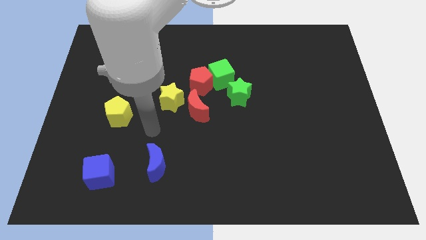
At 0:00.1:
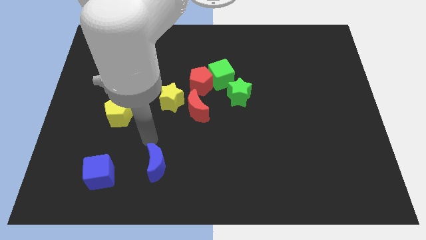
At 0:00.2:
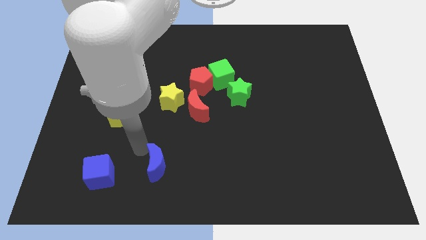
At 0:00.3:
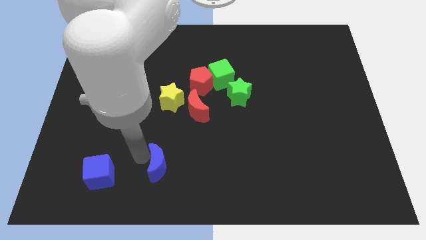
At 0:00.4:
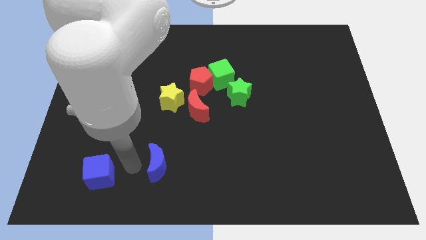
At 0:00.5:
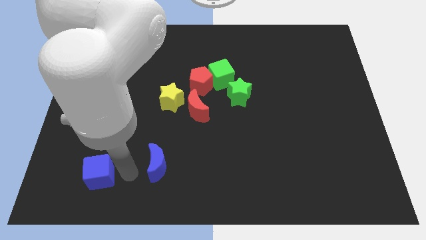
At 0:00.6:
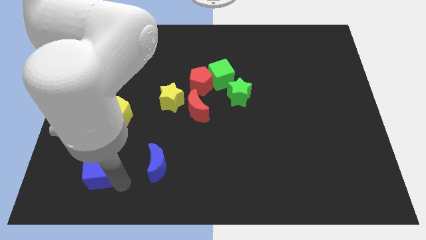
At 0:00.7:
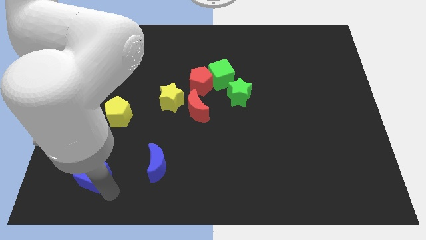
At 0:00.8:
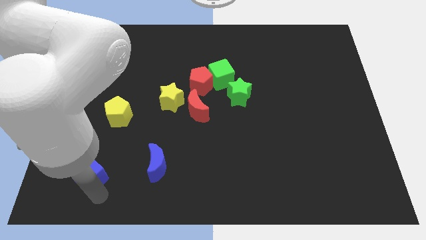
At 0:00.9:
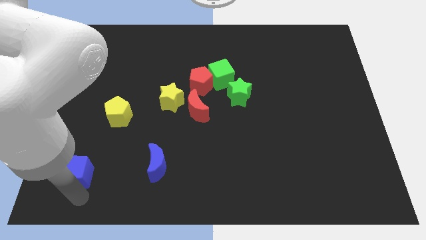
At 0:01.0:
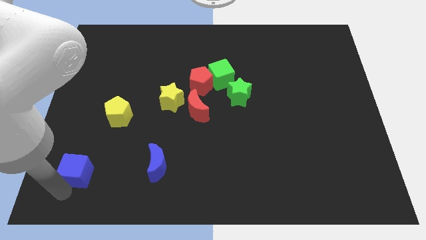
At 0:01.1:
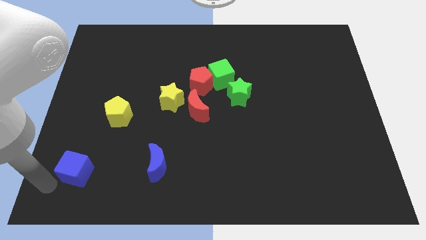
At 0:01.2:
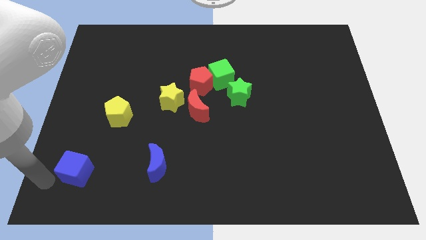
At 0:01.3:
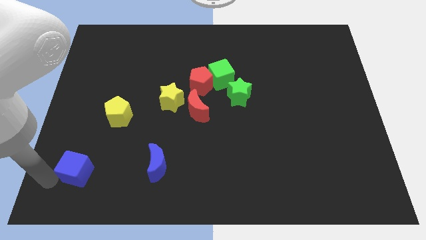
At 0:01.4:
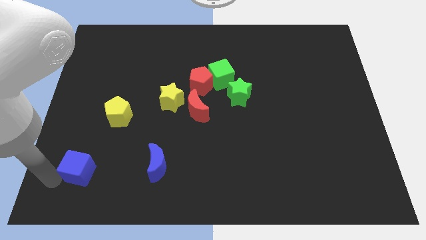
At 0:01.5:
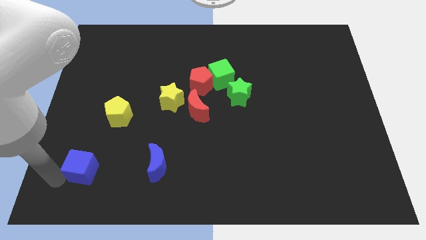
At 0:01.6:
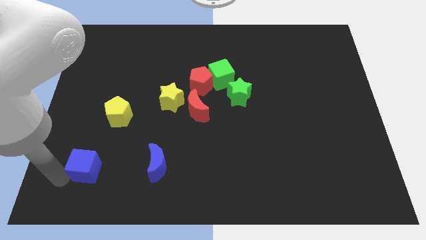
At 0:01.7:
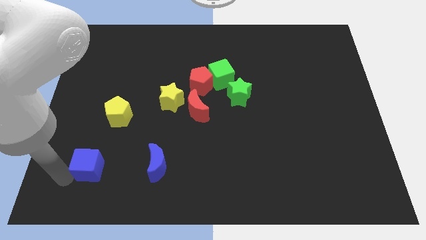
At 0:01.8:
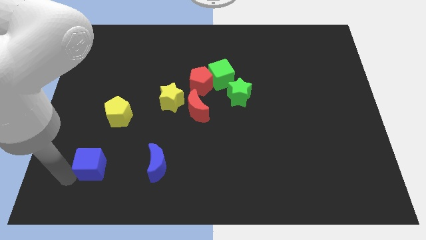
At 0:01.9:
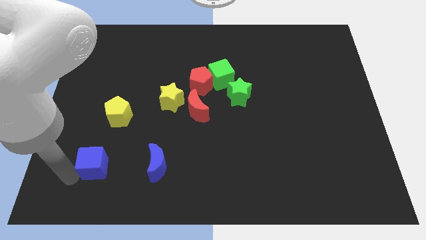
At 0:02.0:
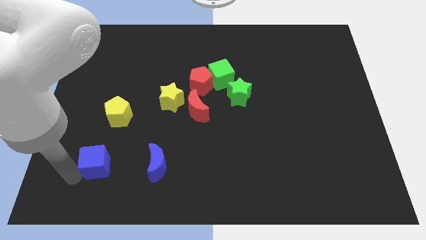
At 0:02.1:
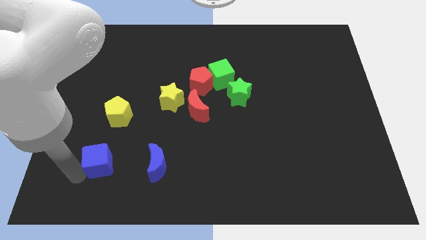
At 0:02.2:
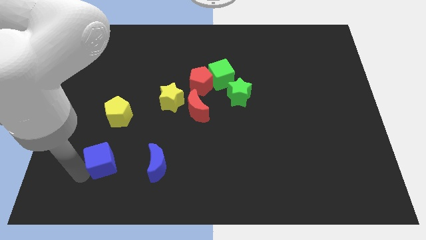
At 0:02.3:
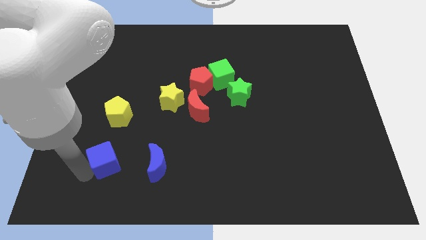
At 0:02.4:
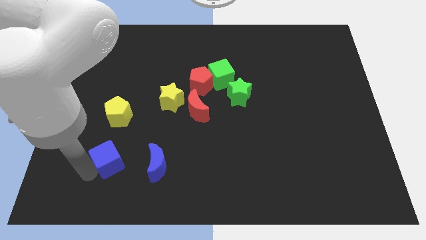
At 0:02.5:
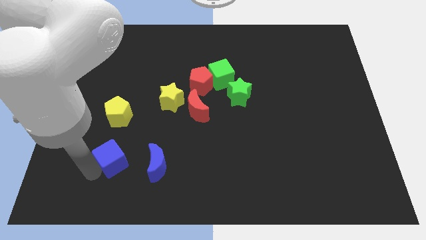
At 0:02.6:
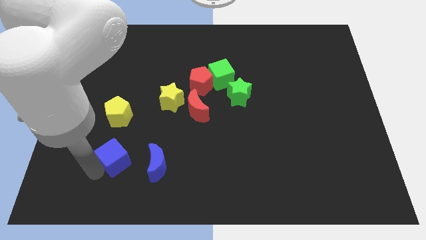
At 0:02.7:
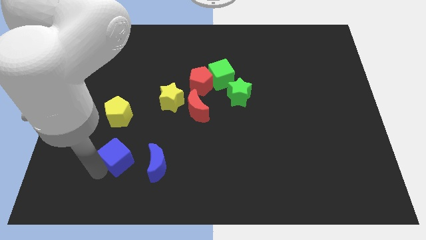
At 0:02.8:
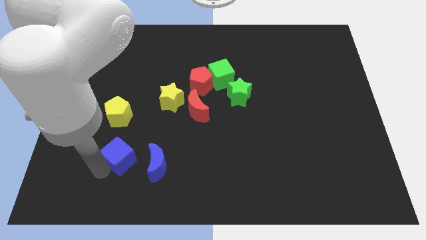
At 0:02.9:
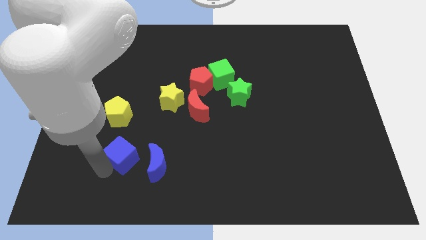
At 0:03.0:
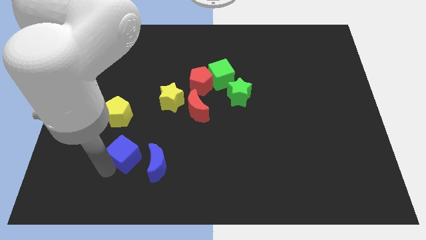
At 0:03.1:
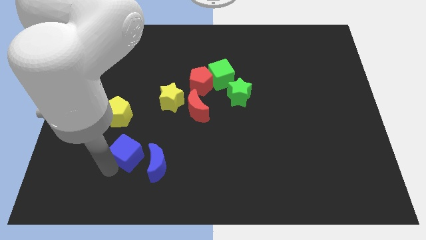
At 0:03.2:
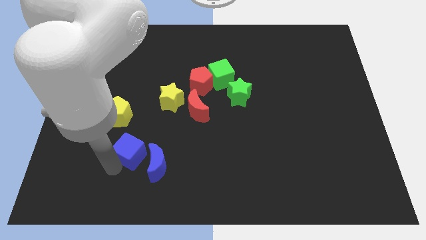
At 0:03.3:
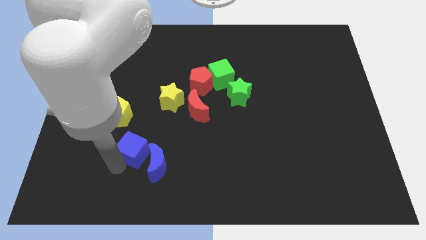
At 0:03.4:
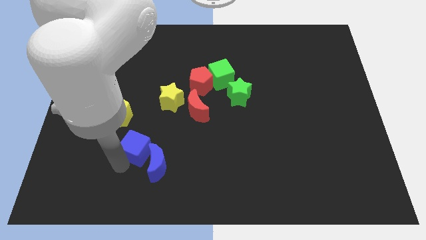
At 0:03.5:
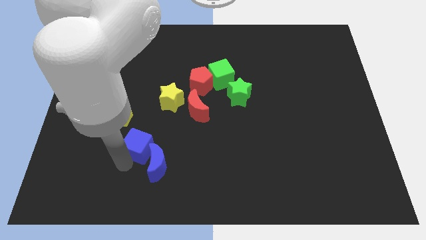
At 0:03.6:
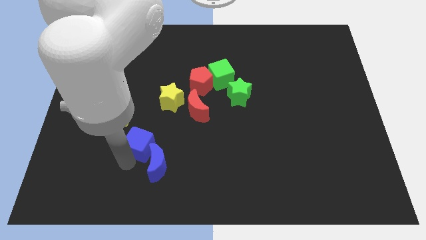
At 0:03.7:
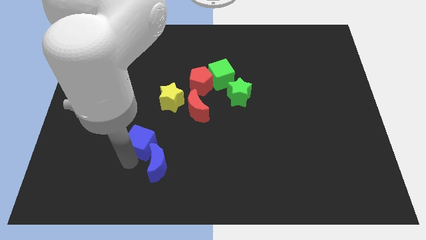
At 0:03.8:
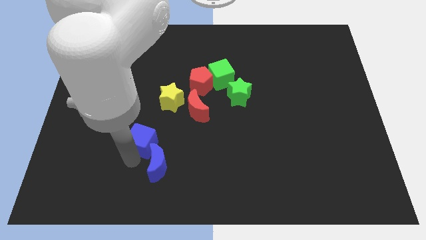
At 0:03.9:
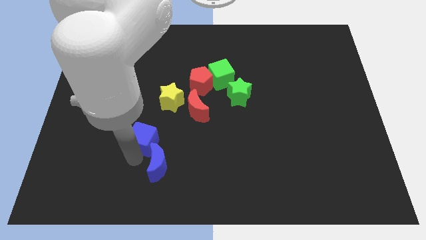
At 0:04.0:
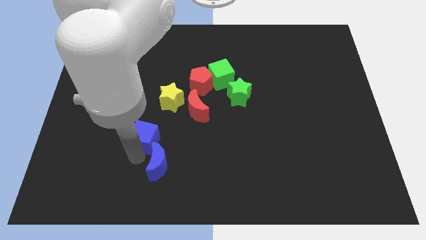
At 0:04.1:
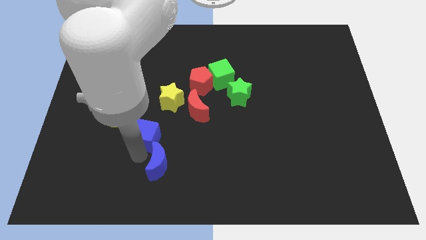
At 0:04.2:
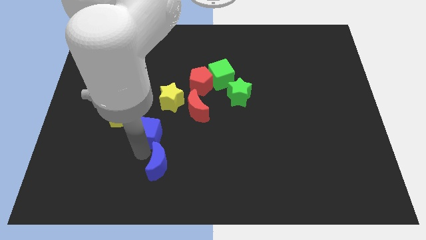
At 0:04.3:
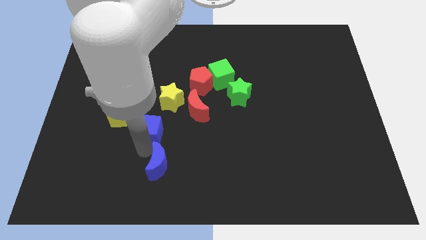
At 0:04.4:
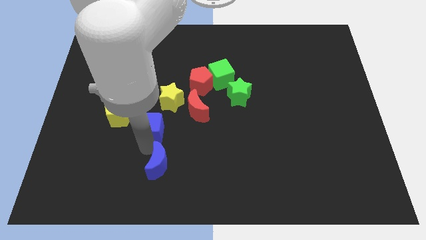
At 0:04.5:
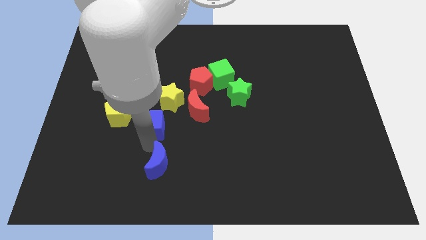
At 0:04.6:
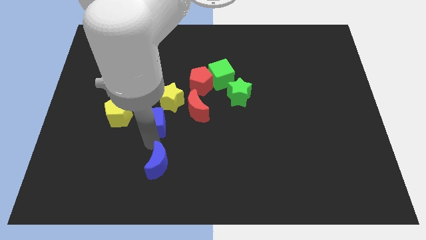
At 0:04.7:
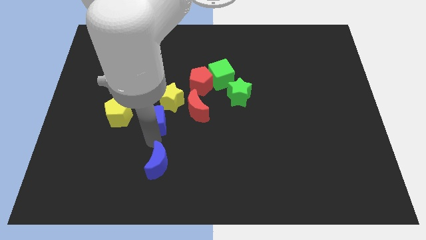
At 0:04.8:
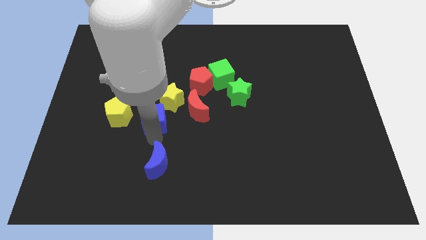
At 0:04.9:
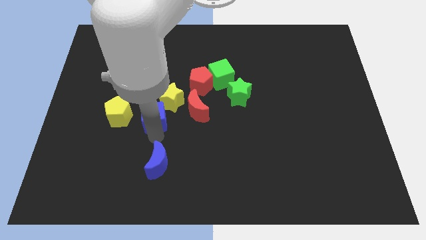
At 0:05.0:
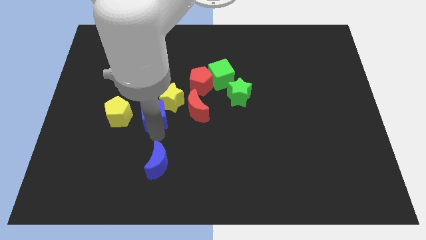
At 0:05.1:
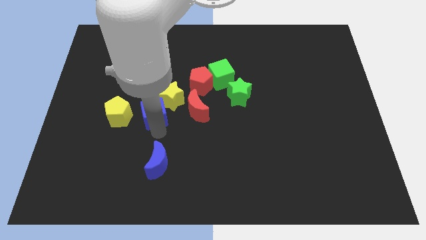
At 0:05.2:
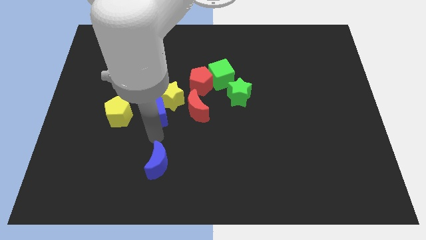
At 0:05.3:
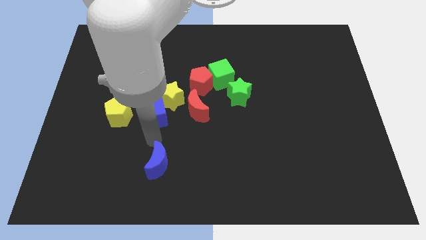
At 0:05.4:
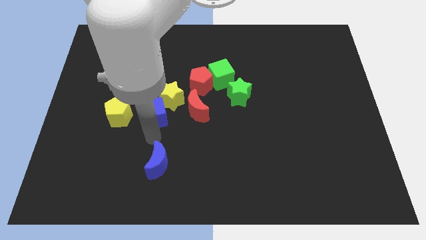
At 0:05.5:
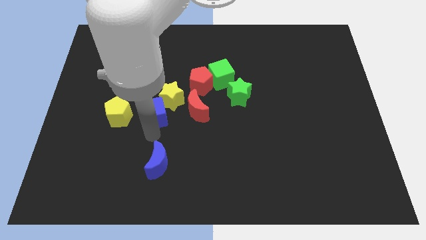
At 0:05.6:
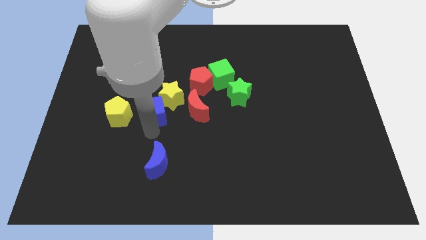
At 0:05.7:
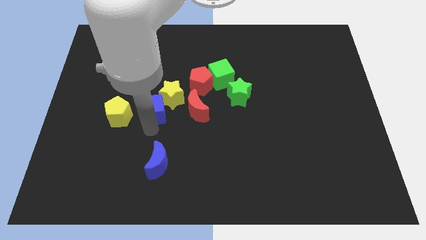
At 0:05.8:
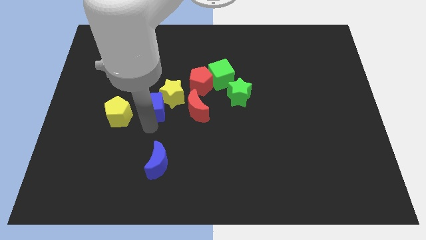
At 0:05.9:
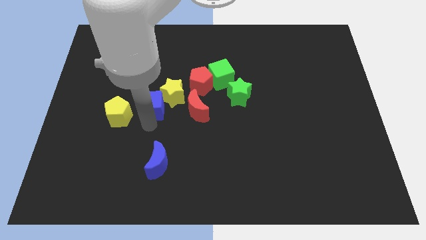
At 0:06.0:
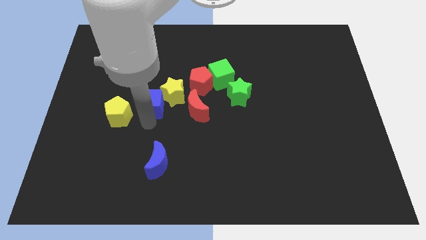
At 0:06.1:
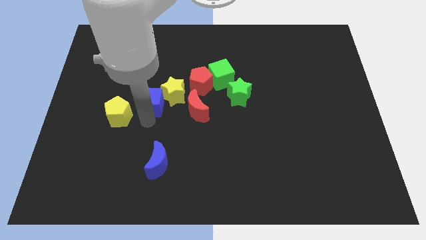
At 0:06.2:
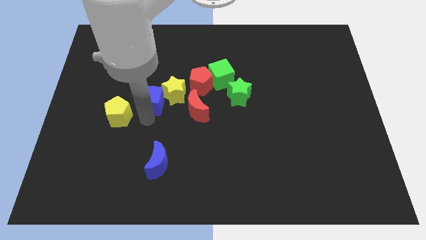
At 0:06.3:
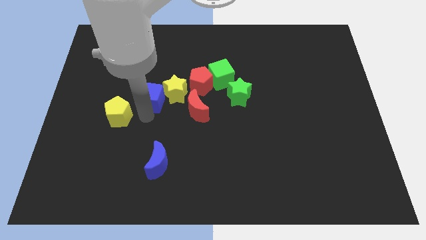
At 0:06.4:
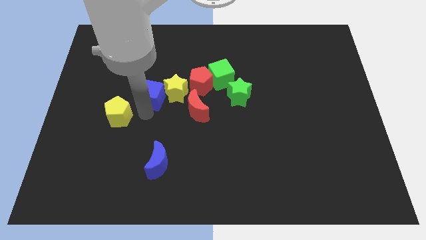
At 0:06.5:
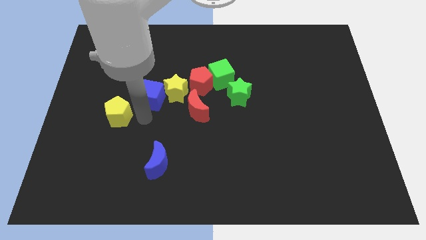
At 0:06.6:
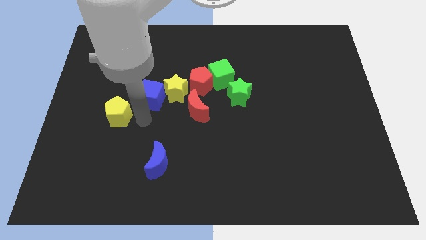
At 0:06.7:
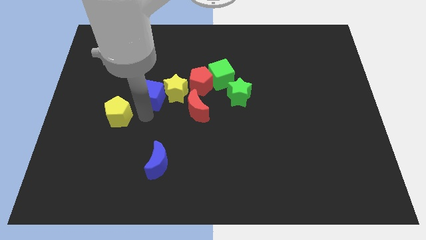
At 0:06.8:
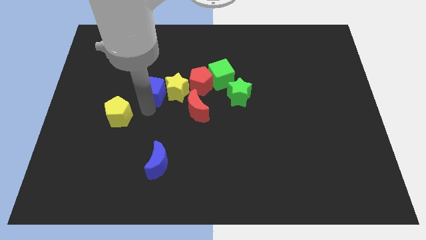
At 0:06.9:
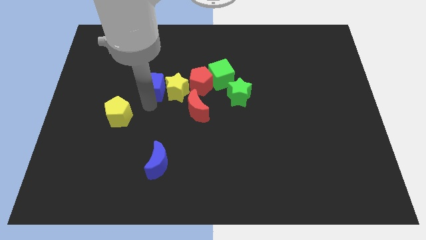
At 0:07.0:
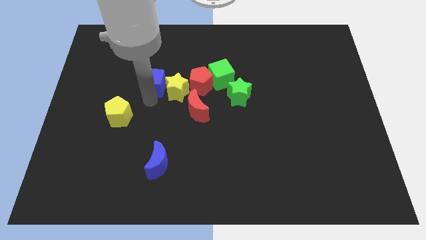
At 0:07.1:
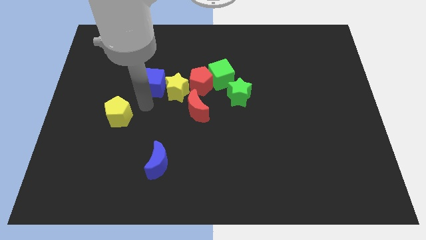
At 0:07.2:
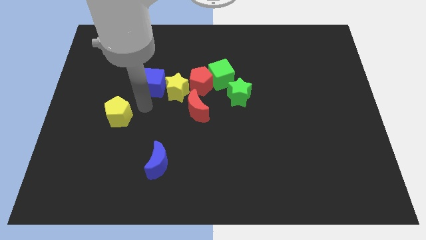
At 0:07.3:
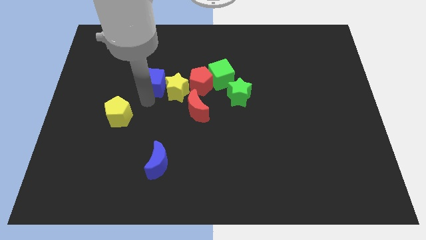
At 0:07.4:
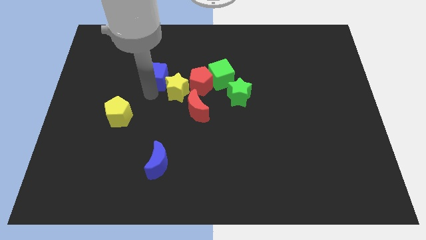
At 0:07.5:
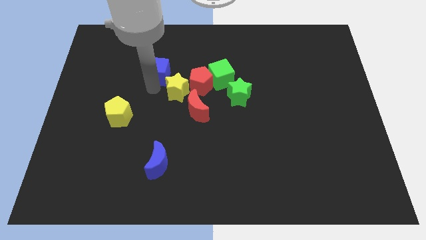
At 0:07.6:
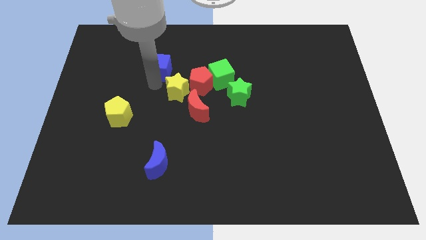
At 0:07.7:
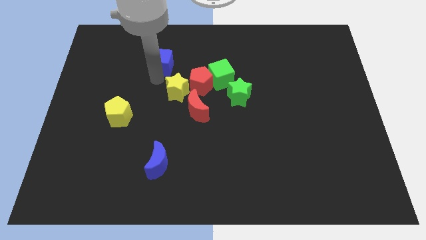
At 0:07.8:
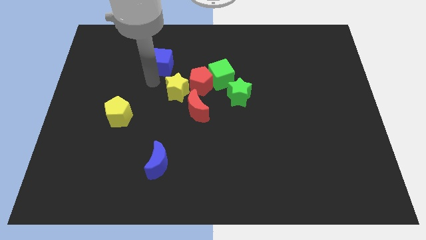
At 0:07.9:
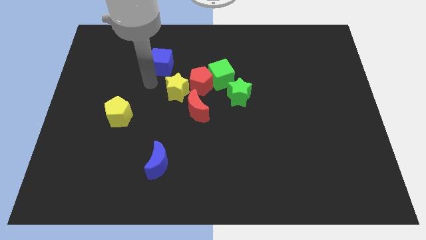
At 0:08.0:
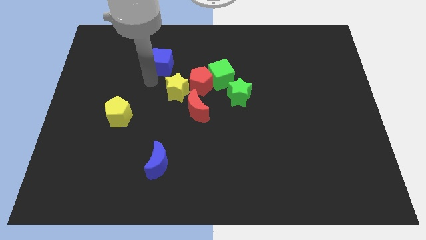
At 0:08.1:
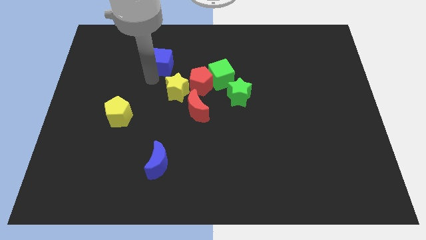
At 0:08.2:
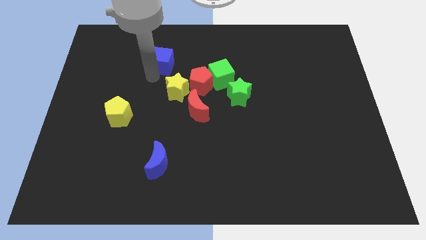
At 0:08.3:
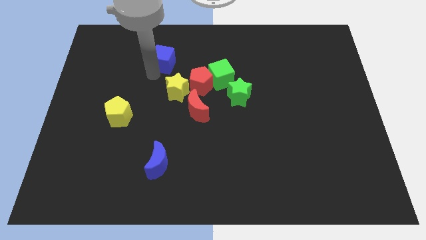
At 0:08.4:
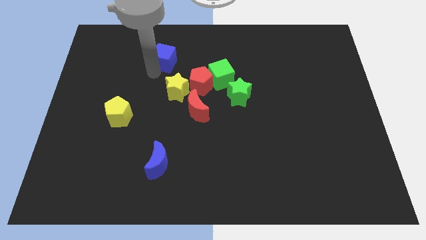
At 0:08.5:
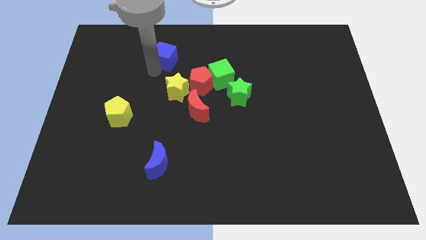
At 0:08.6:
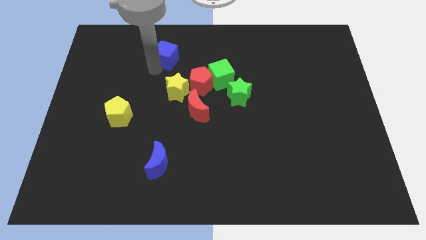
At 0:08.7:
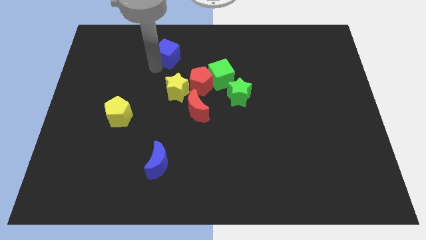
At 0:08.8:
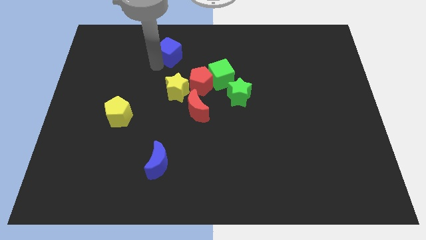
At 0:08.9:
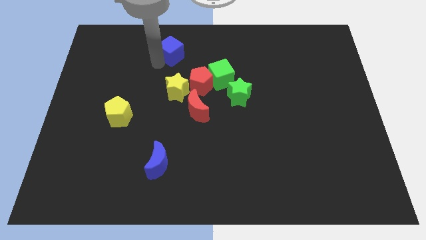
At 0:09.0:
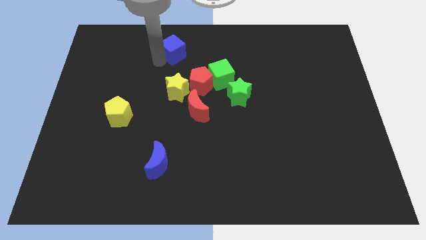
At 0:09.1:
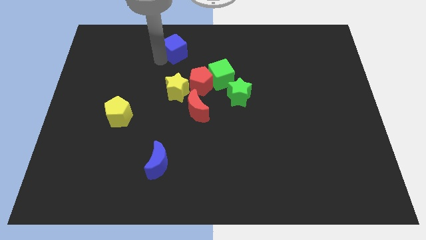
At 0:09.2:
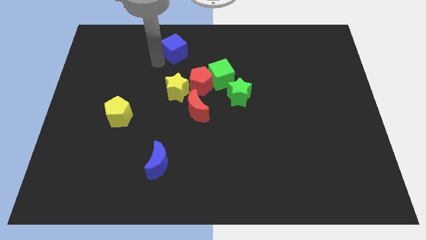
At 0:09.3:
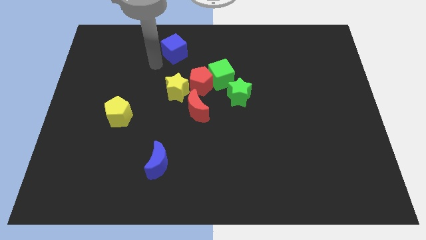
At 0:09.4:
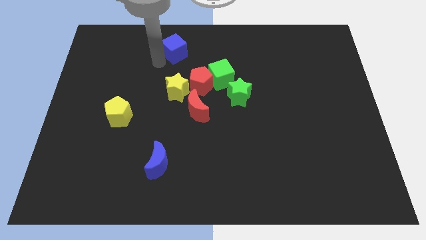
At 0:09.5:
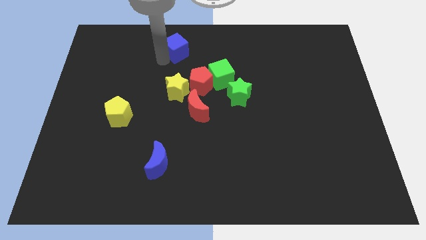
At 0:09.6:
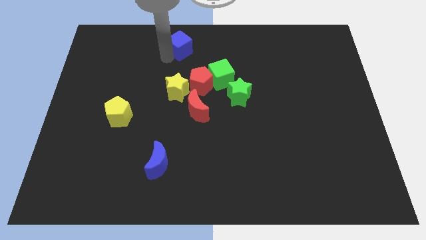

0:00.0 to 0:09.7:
put the blue cube to the top side
